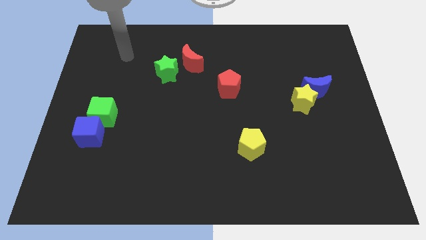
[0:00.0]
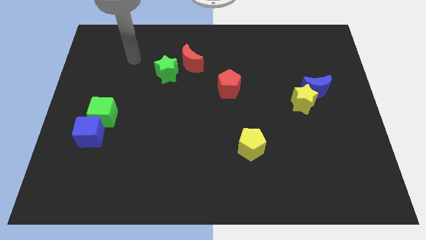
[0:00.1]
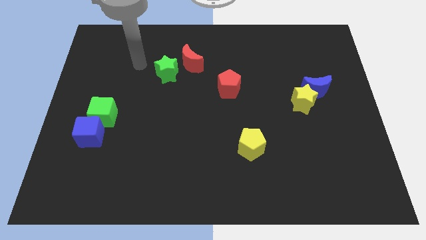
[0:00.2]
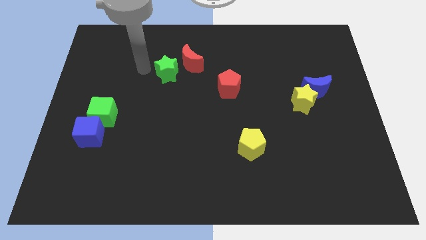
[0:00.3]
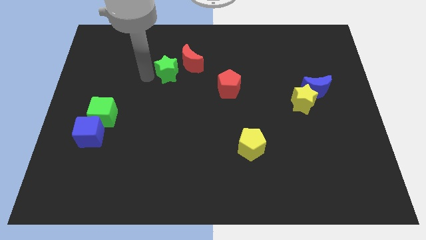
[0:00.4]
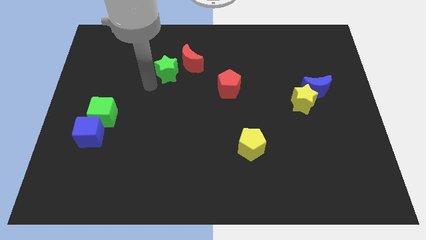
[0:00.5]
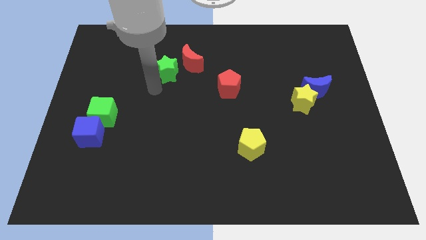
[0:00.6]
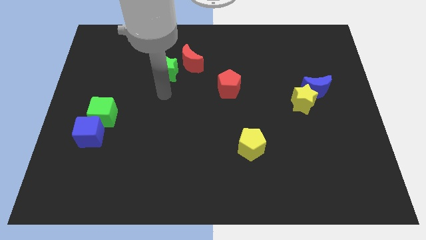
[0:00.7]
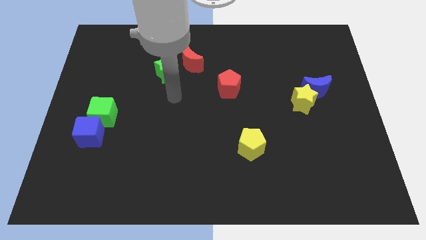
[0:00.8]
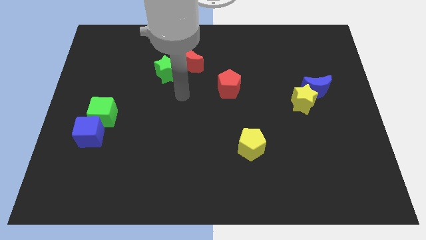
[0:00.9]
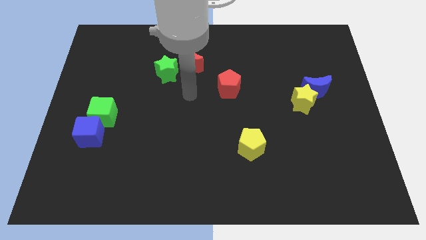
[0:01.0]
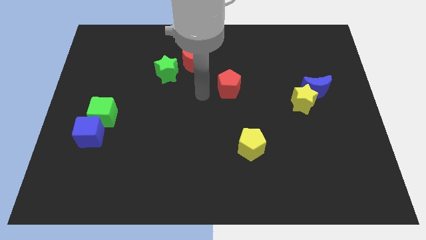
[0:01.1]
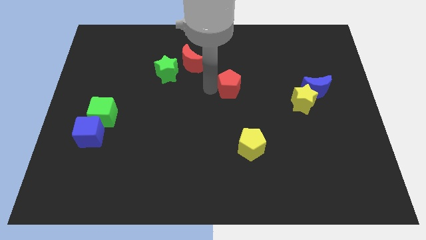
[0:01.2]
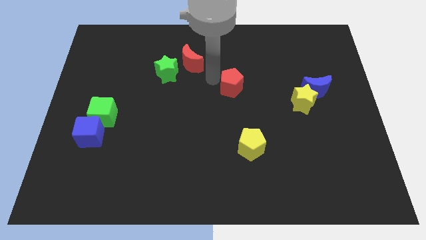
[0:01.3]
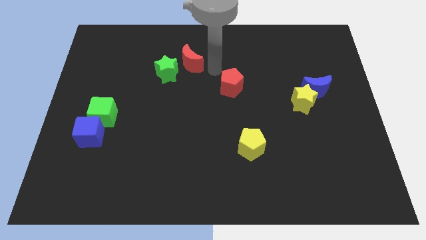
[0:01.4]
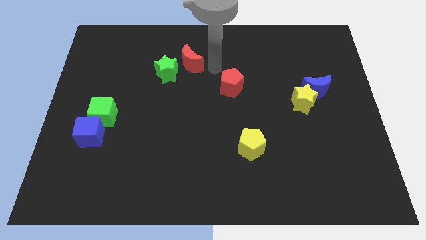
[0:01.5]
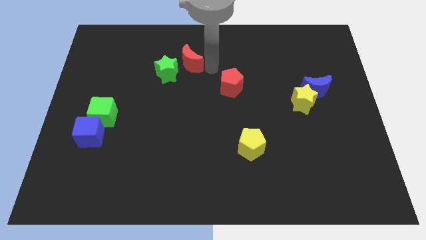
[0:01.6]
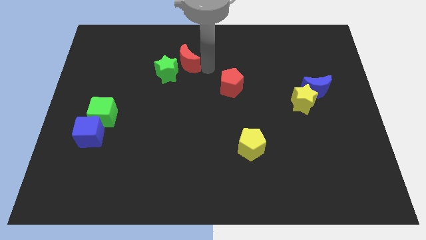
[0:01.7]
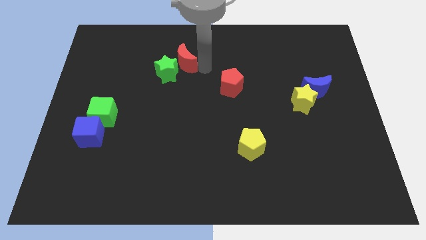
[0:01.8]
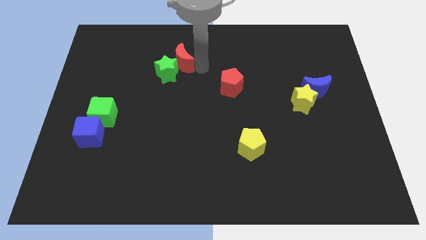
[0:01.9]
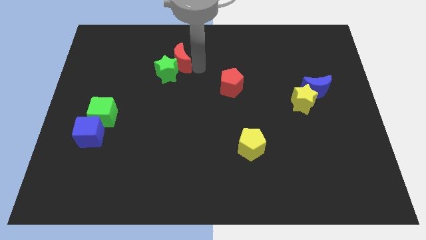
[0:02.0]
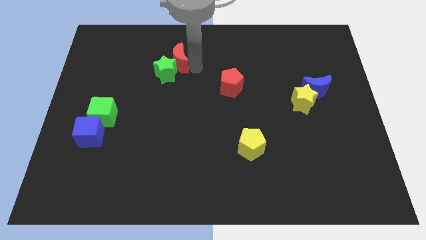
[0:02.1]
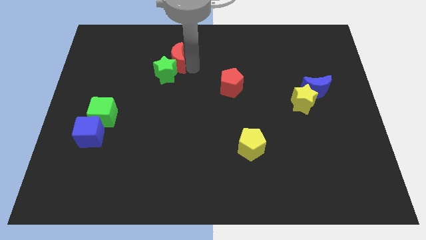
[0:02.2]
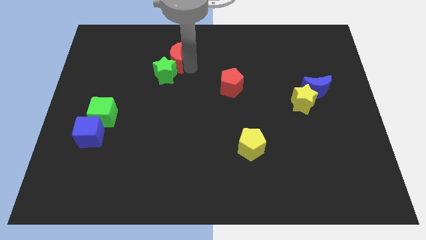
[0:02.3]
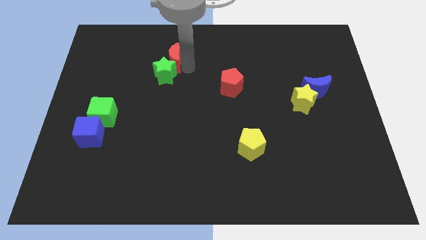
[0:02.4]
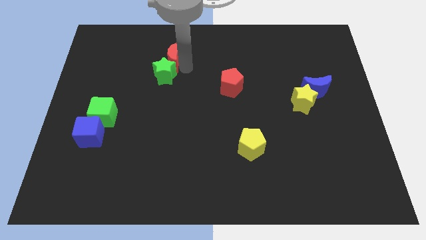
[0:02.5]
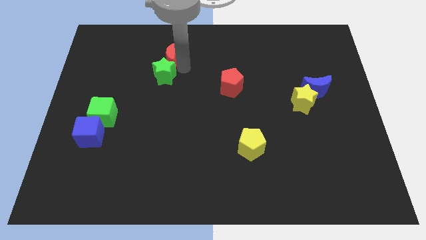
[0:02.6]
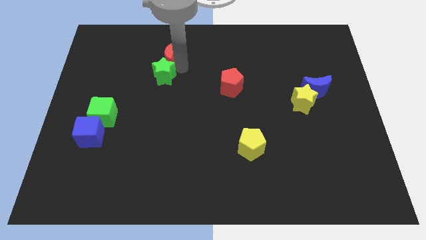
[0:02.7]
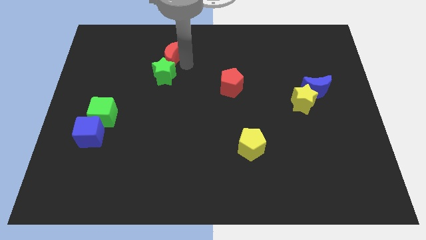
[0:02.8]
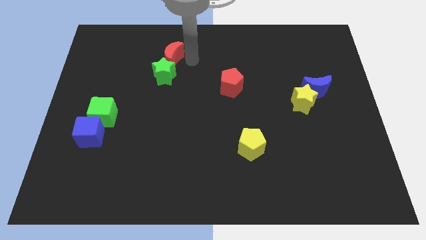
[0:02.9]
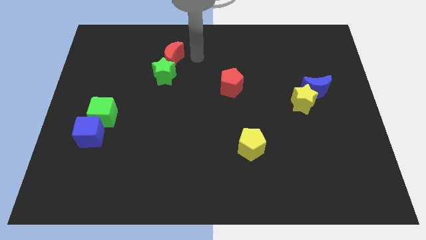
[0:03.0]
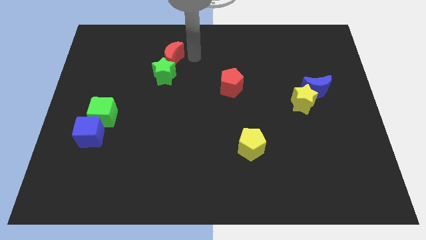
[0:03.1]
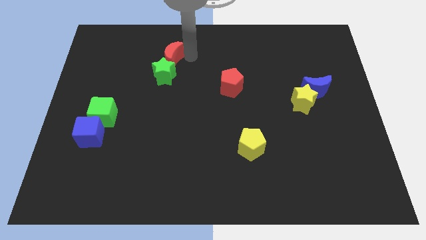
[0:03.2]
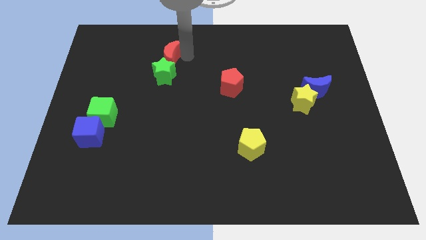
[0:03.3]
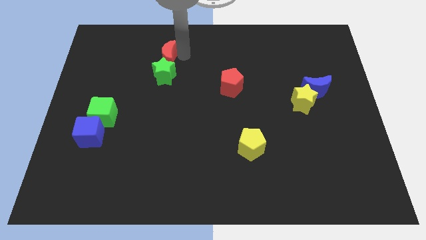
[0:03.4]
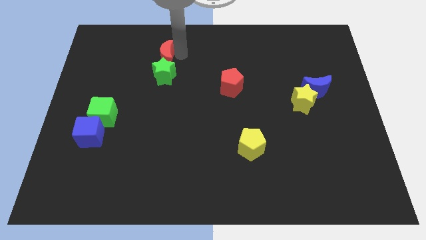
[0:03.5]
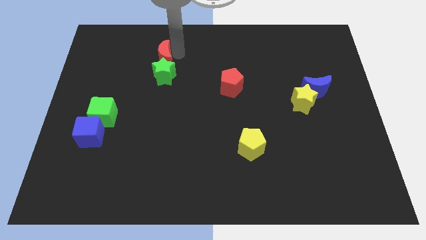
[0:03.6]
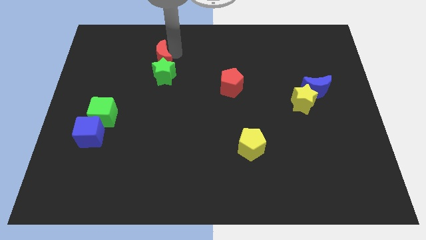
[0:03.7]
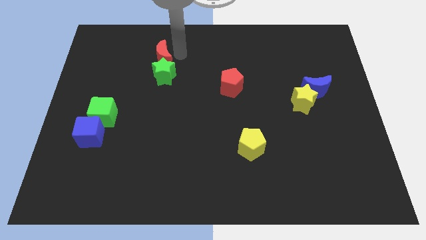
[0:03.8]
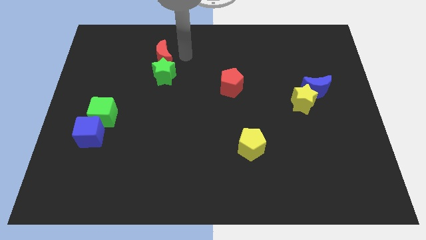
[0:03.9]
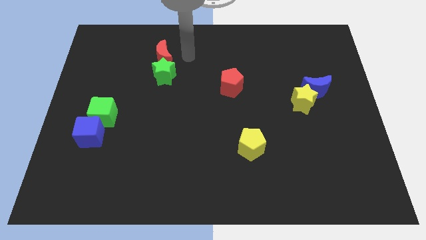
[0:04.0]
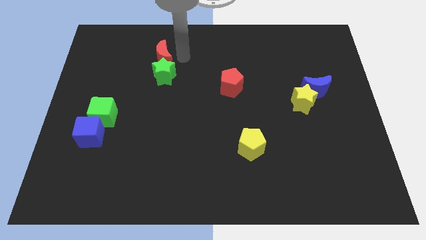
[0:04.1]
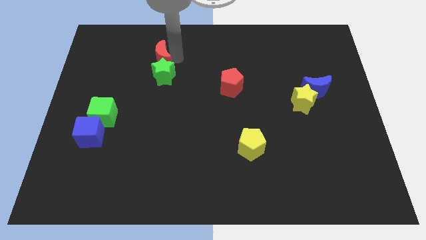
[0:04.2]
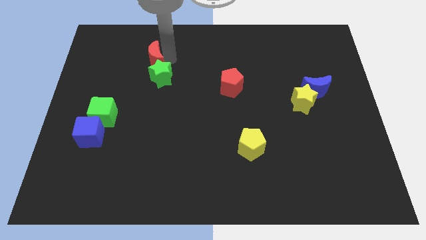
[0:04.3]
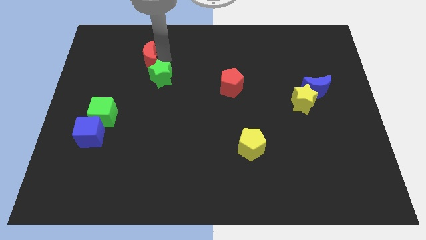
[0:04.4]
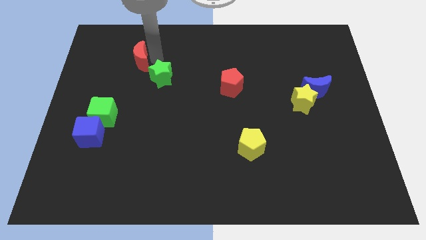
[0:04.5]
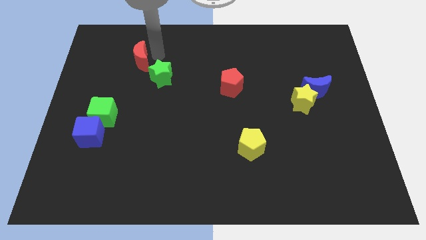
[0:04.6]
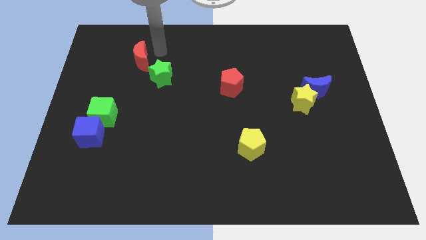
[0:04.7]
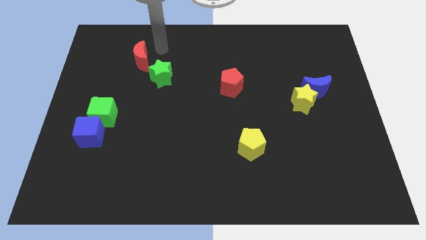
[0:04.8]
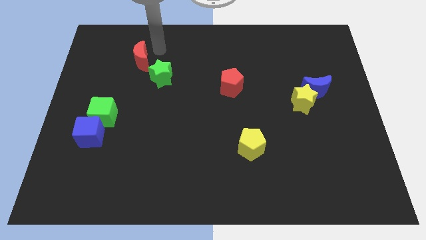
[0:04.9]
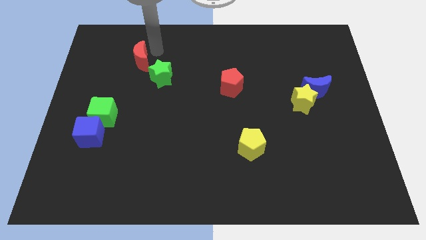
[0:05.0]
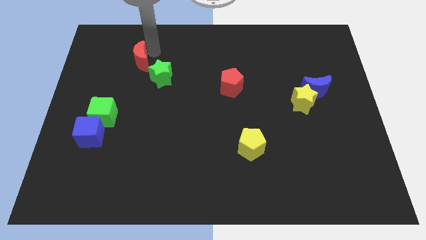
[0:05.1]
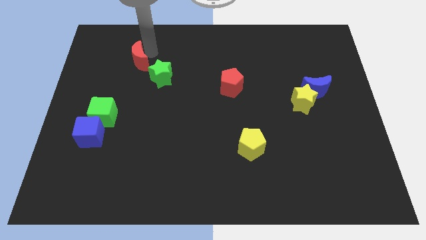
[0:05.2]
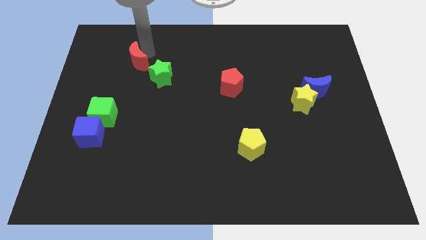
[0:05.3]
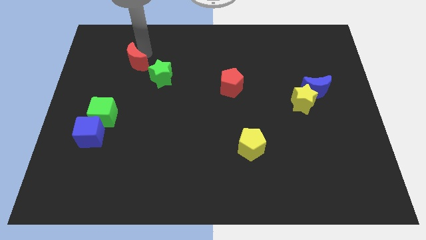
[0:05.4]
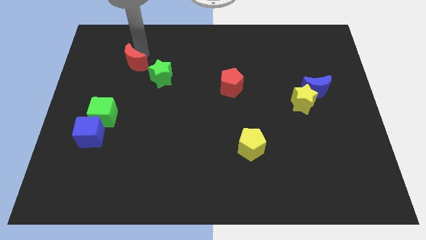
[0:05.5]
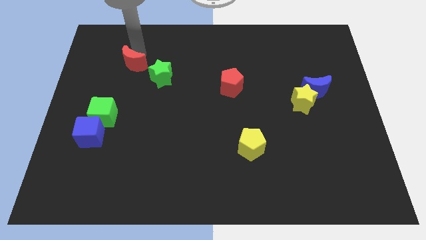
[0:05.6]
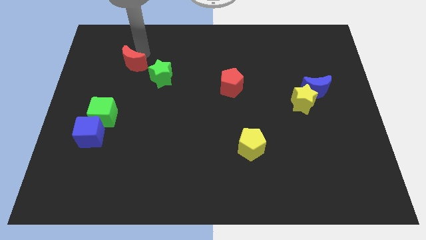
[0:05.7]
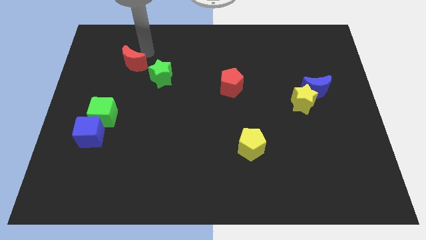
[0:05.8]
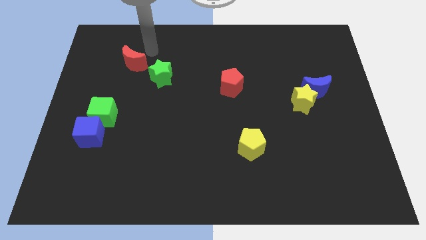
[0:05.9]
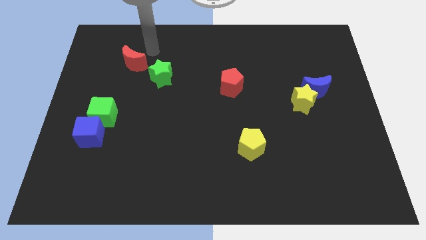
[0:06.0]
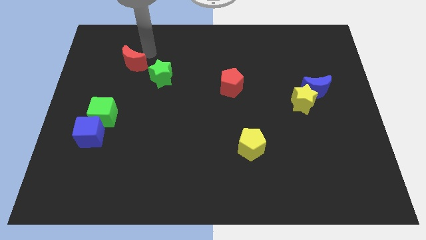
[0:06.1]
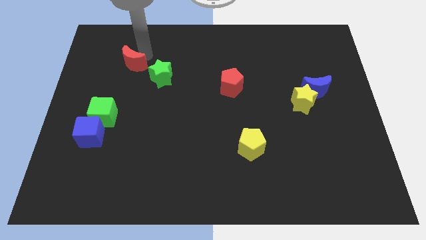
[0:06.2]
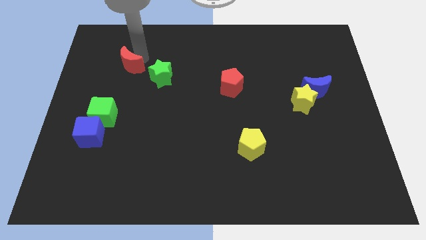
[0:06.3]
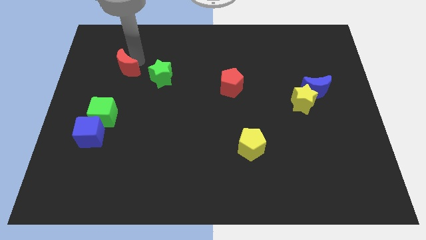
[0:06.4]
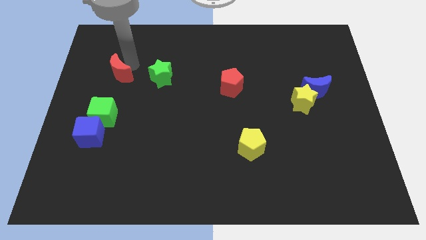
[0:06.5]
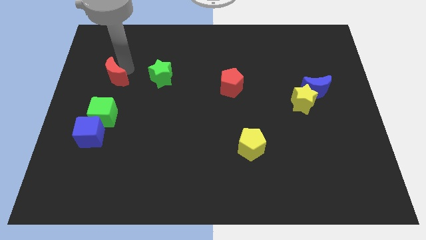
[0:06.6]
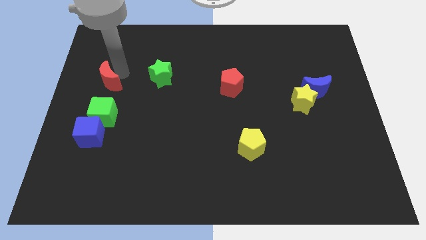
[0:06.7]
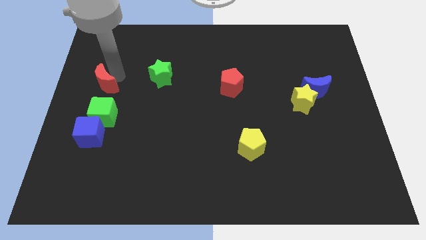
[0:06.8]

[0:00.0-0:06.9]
slide the red moon to the center left
